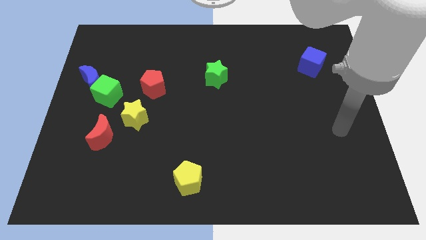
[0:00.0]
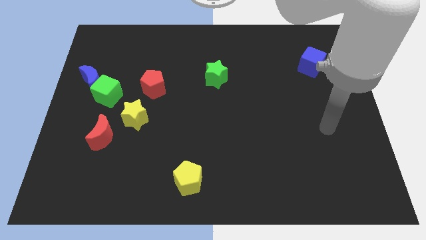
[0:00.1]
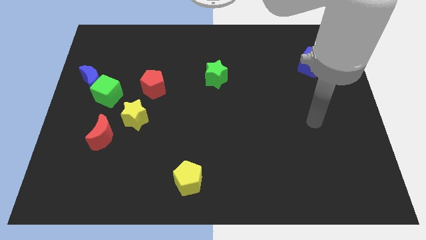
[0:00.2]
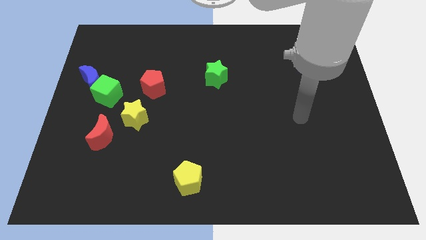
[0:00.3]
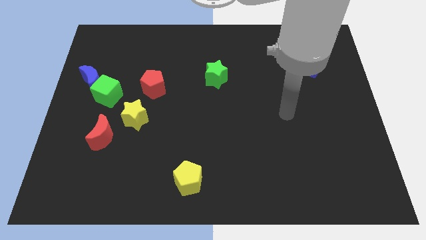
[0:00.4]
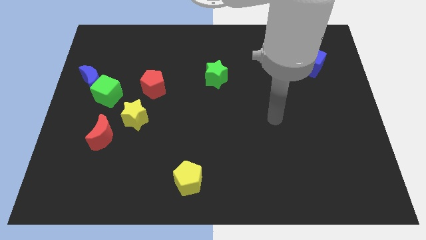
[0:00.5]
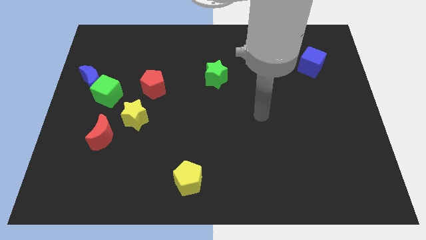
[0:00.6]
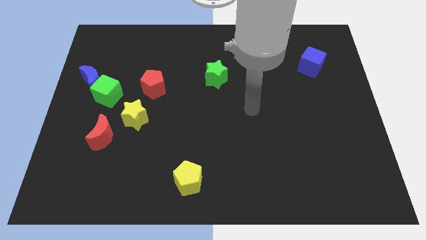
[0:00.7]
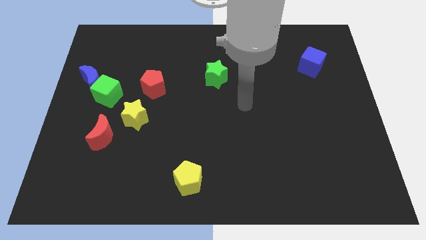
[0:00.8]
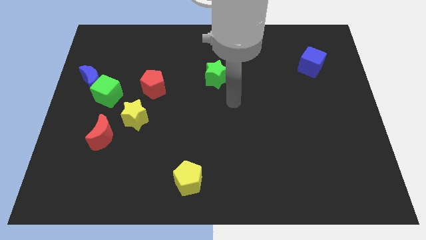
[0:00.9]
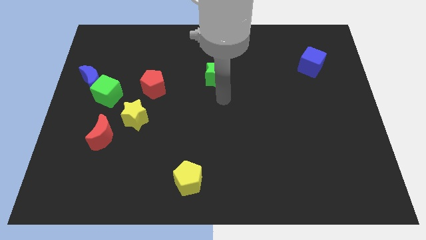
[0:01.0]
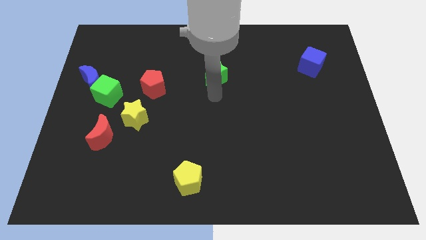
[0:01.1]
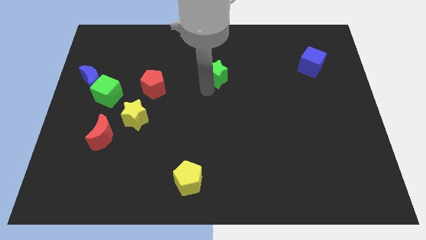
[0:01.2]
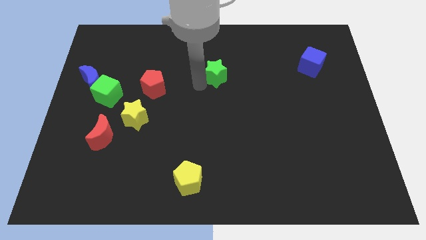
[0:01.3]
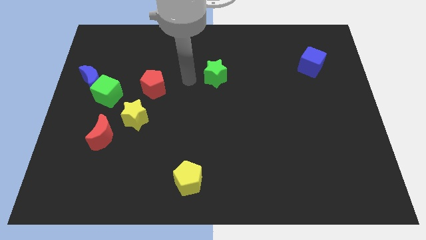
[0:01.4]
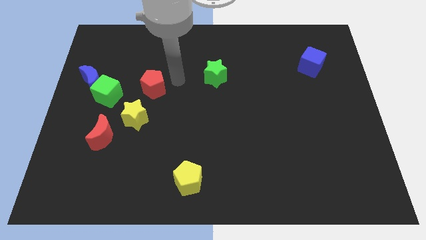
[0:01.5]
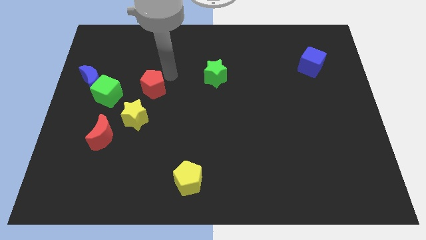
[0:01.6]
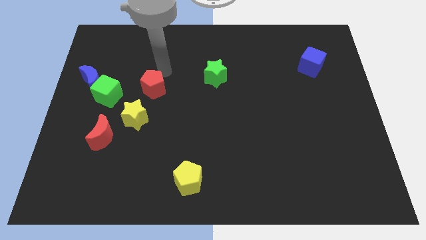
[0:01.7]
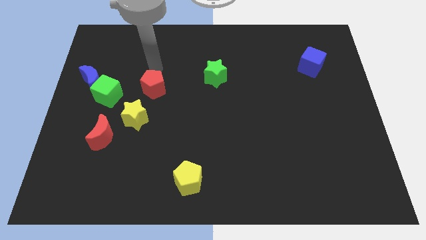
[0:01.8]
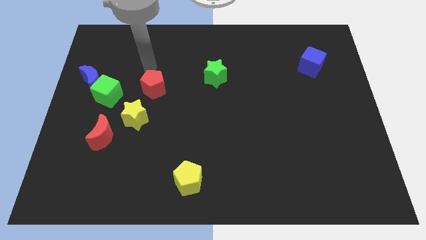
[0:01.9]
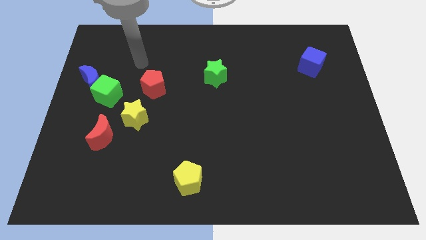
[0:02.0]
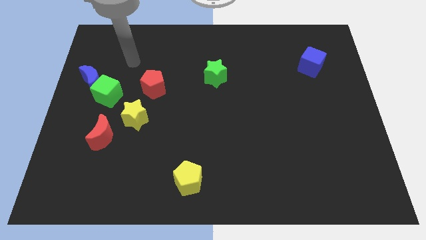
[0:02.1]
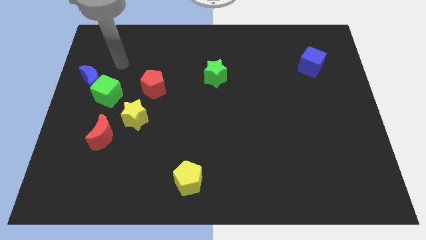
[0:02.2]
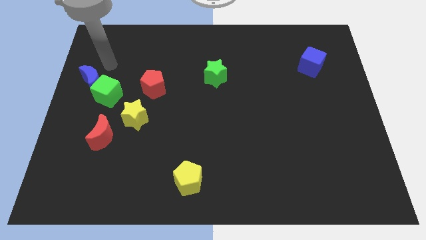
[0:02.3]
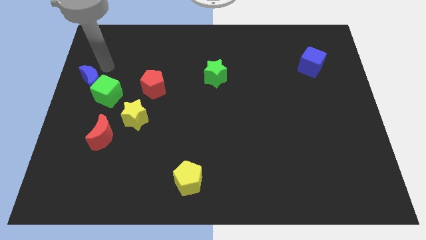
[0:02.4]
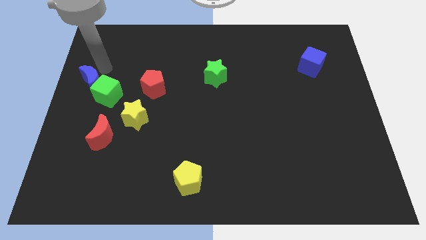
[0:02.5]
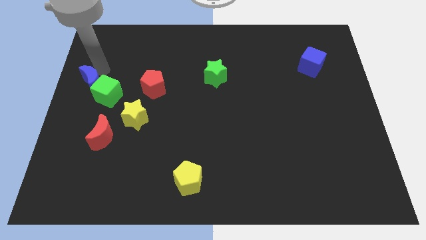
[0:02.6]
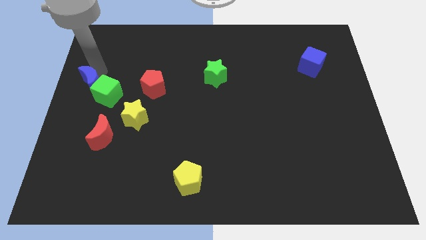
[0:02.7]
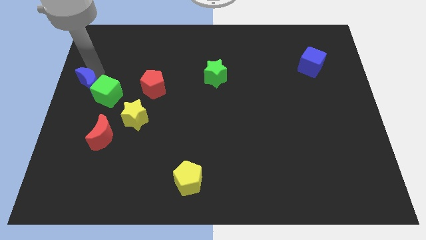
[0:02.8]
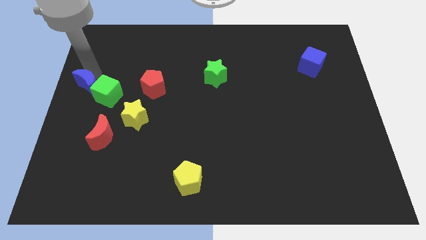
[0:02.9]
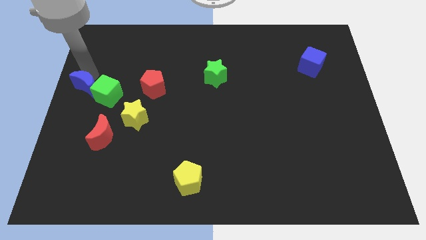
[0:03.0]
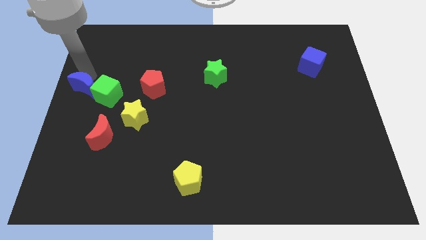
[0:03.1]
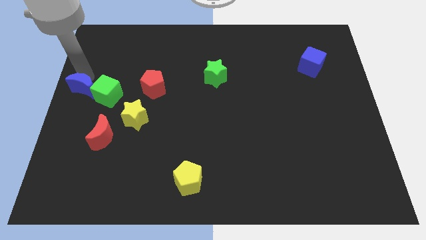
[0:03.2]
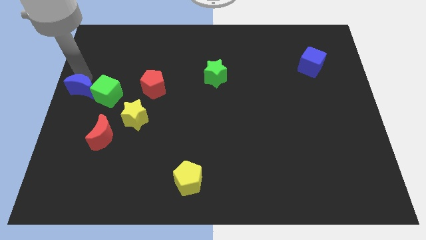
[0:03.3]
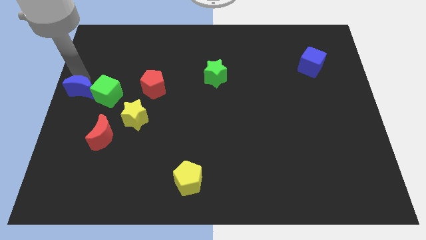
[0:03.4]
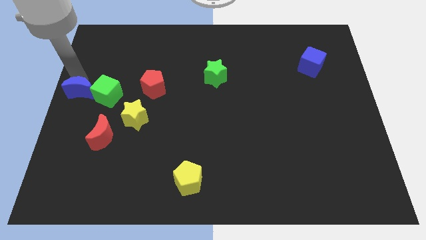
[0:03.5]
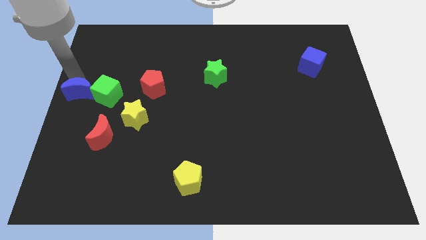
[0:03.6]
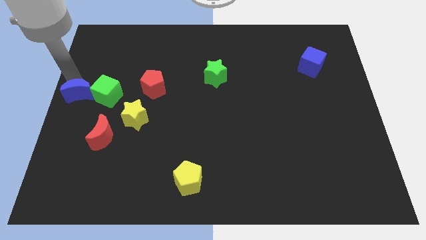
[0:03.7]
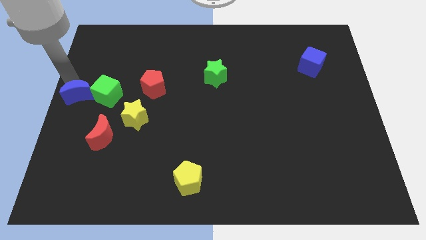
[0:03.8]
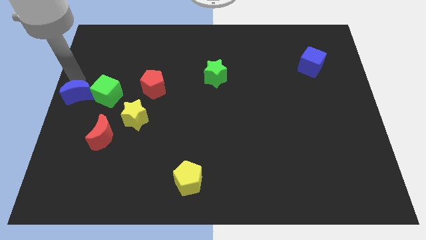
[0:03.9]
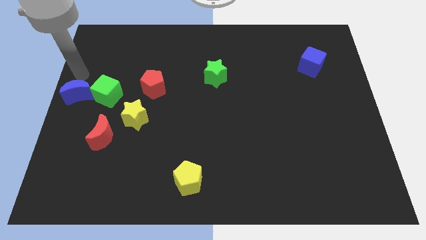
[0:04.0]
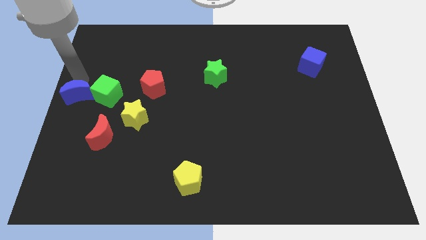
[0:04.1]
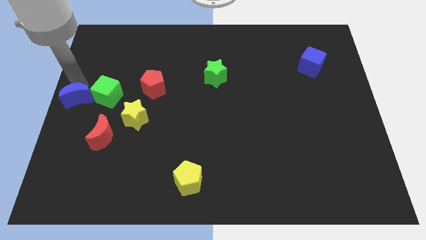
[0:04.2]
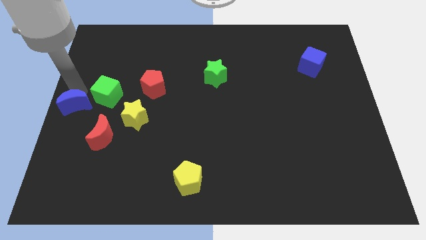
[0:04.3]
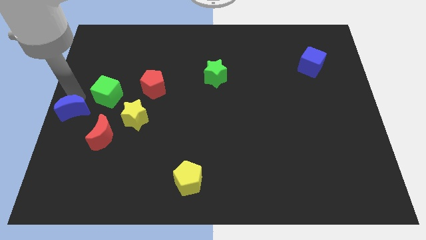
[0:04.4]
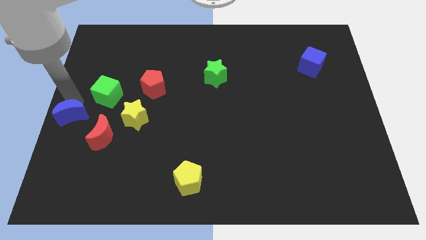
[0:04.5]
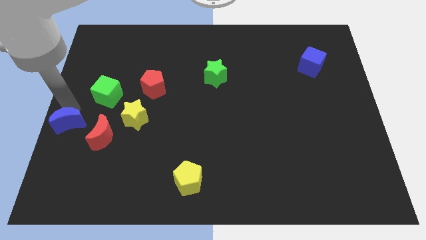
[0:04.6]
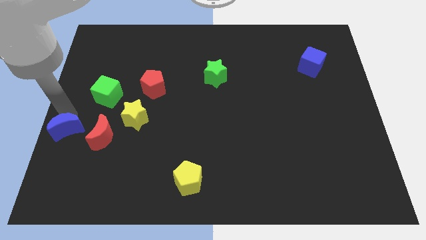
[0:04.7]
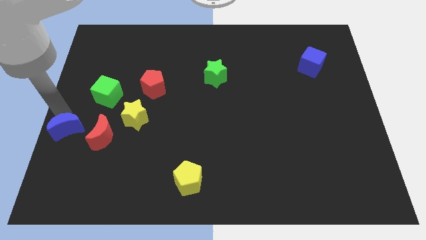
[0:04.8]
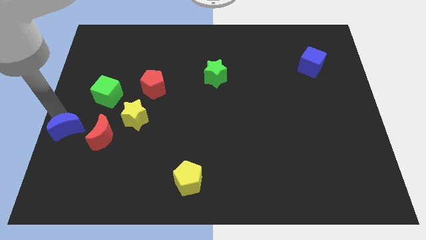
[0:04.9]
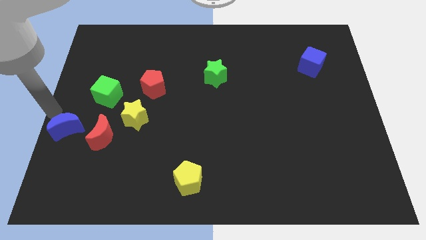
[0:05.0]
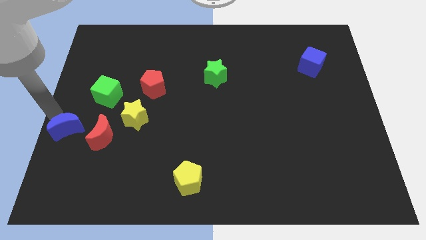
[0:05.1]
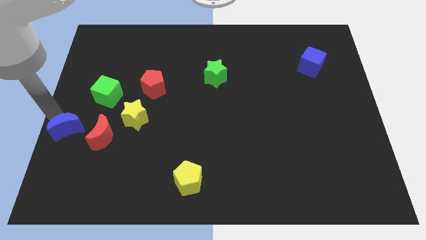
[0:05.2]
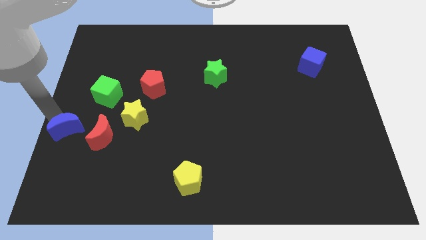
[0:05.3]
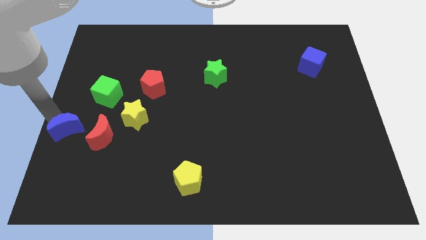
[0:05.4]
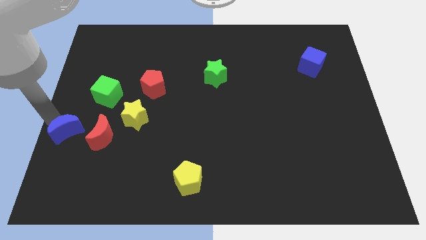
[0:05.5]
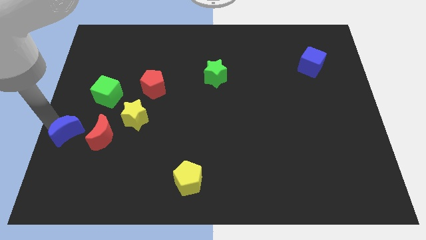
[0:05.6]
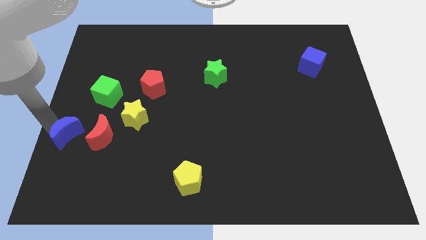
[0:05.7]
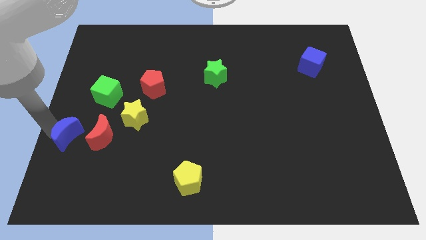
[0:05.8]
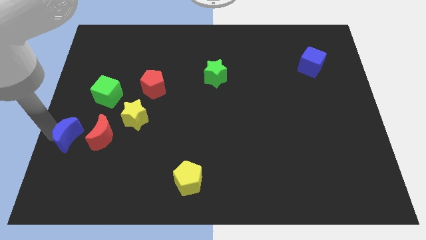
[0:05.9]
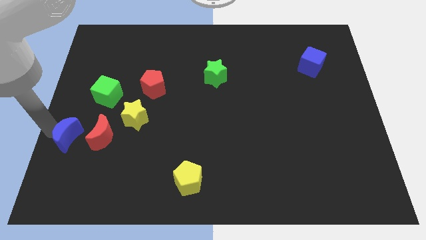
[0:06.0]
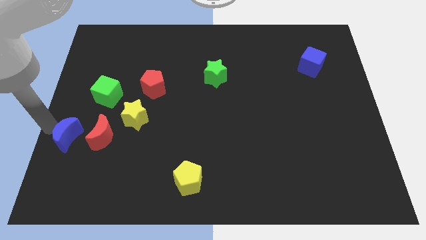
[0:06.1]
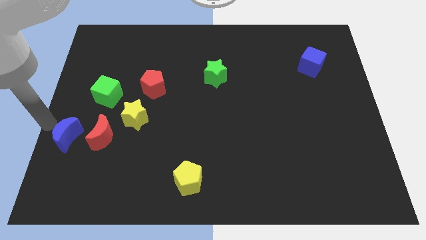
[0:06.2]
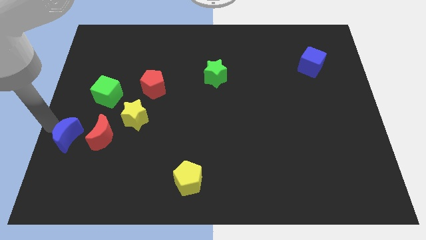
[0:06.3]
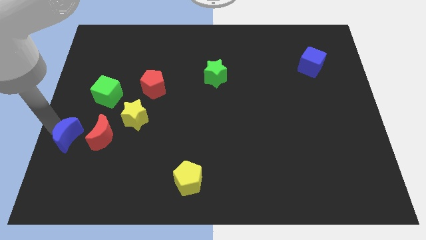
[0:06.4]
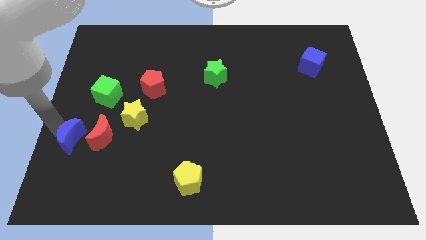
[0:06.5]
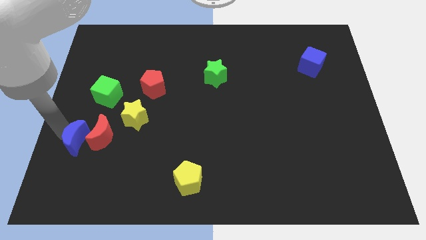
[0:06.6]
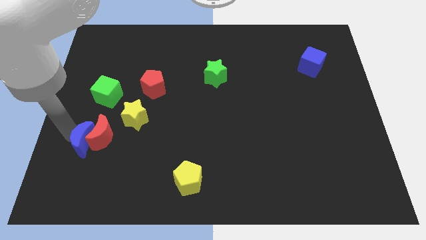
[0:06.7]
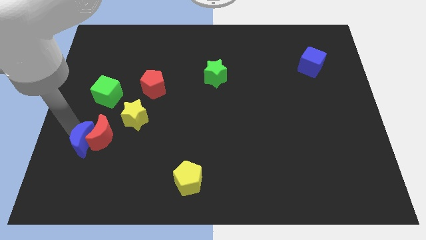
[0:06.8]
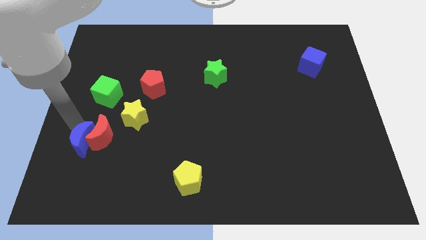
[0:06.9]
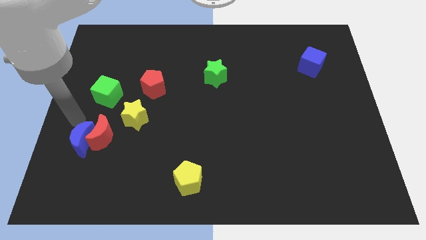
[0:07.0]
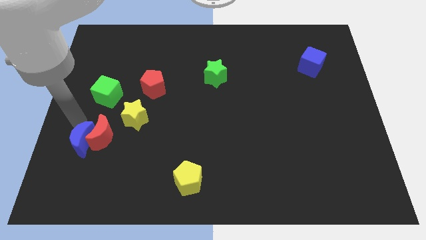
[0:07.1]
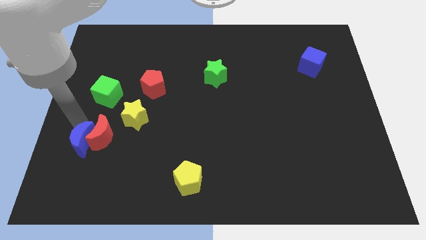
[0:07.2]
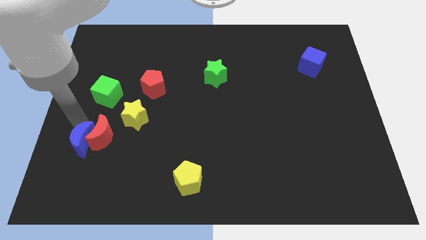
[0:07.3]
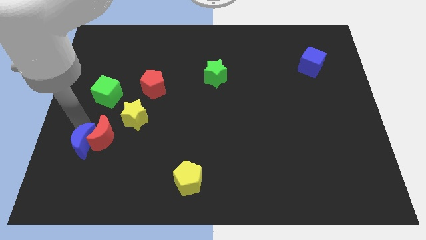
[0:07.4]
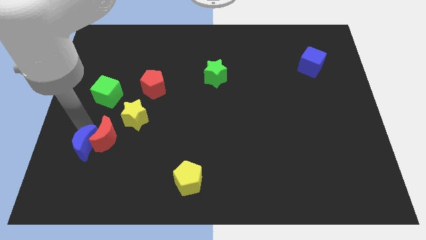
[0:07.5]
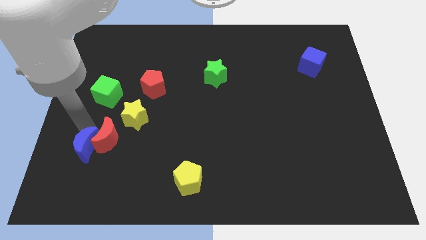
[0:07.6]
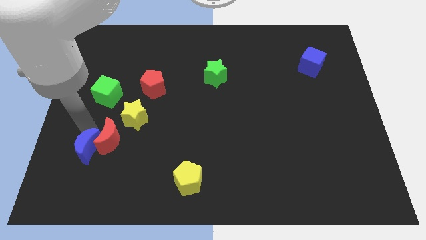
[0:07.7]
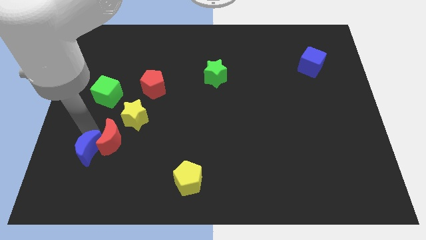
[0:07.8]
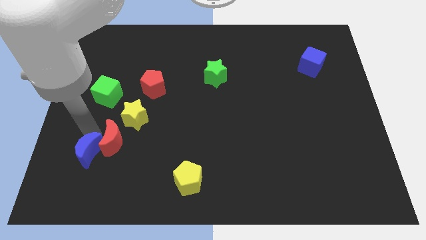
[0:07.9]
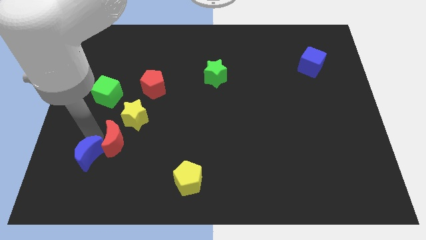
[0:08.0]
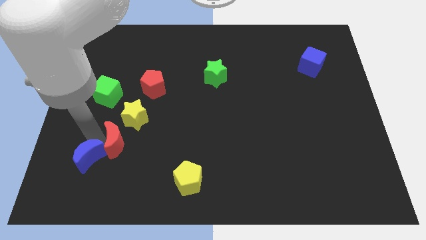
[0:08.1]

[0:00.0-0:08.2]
move the blue moon below the red moon
